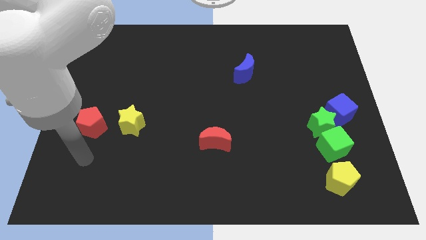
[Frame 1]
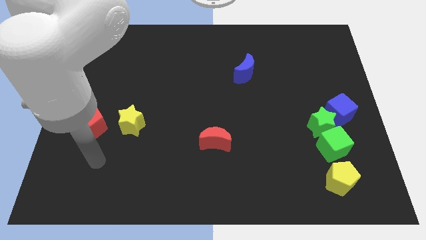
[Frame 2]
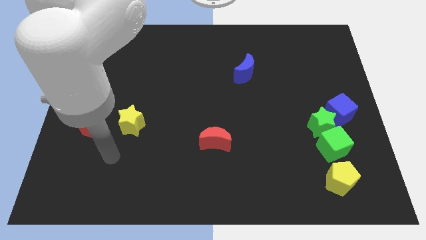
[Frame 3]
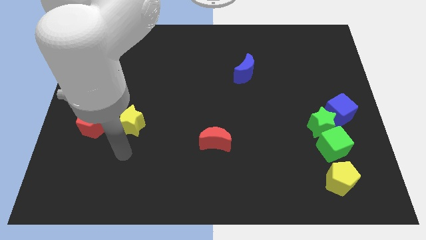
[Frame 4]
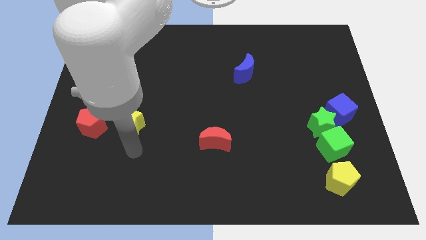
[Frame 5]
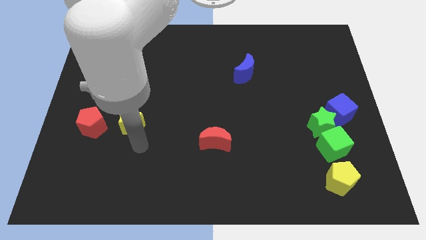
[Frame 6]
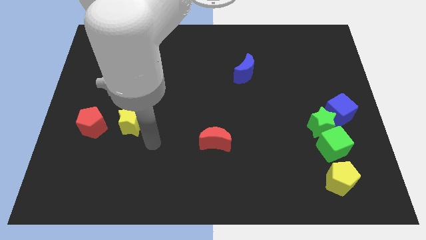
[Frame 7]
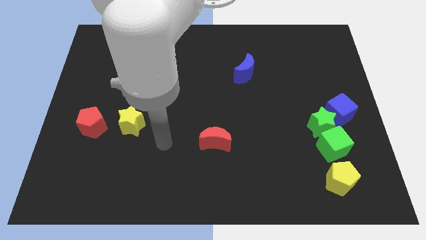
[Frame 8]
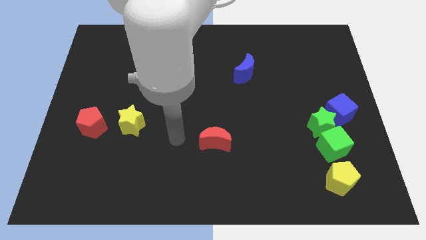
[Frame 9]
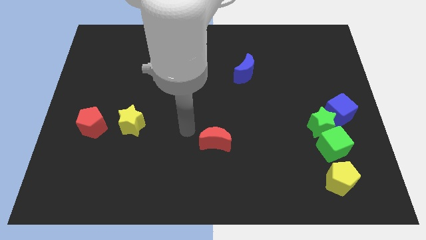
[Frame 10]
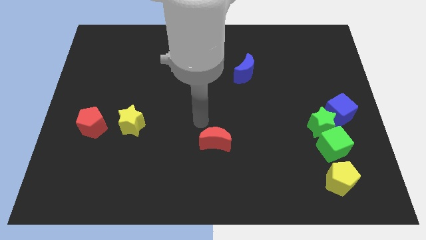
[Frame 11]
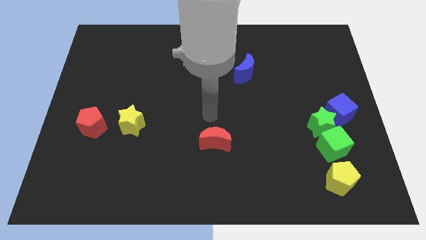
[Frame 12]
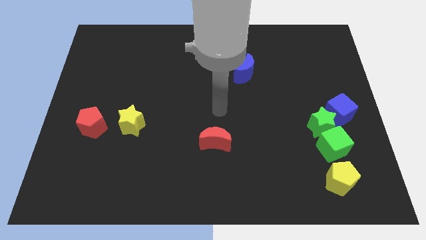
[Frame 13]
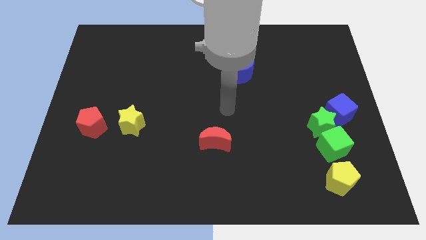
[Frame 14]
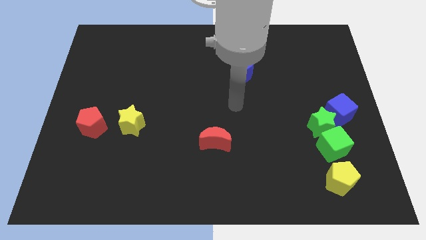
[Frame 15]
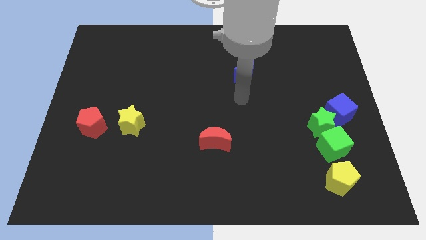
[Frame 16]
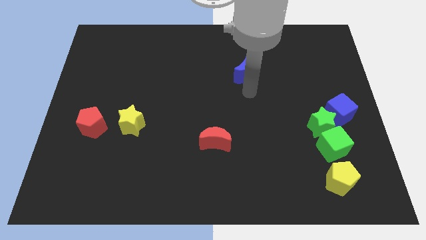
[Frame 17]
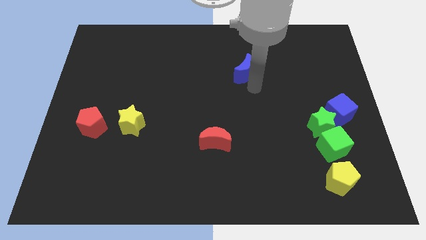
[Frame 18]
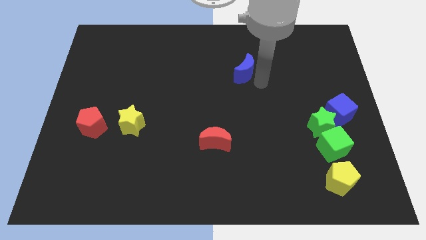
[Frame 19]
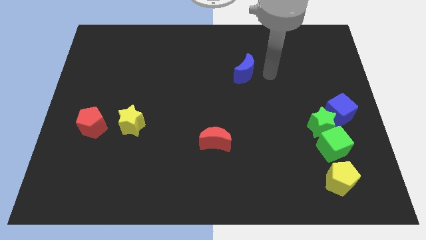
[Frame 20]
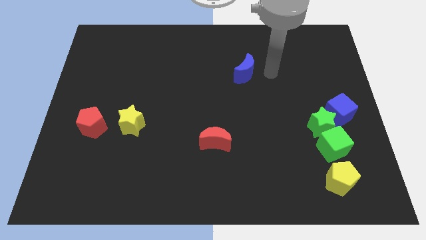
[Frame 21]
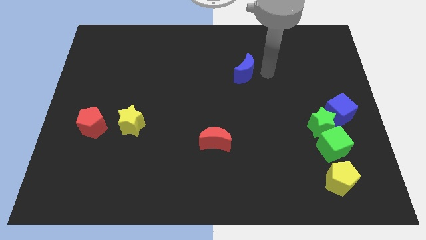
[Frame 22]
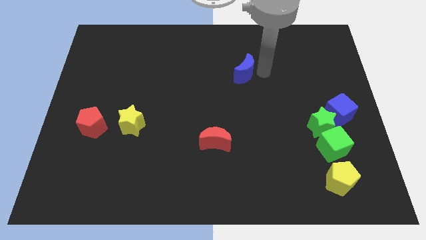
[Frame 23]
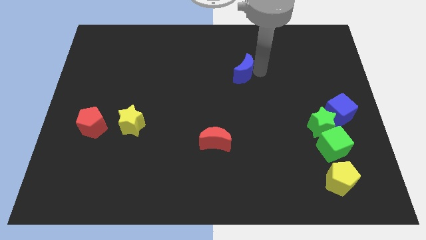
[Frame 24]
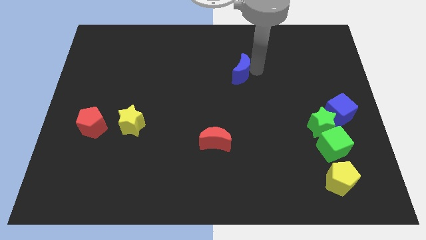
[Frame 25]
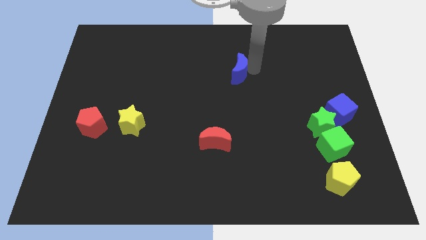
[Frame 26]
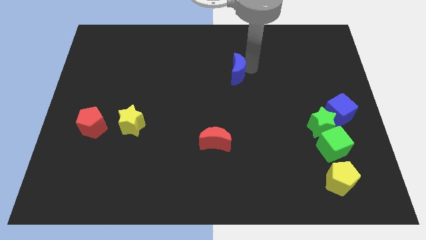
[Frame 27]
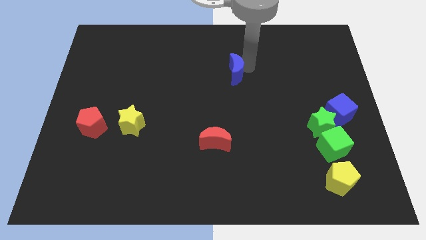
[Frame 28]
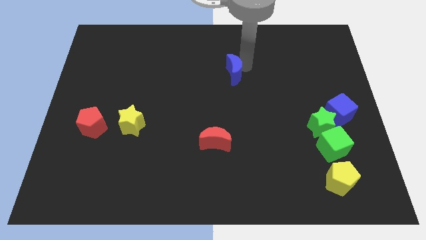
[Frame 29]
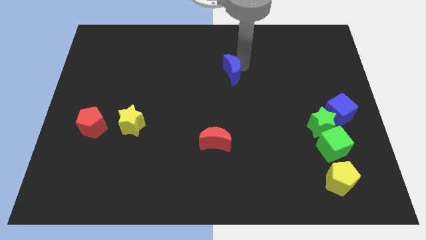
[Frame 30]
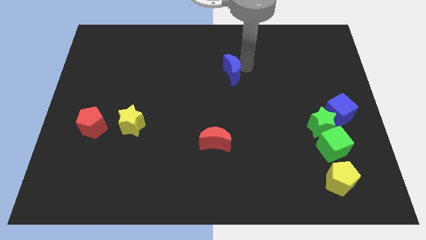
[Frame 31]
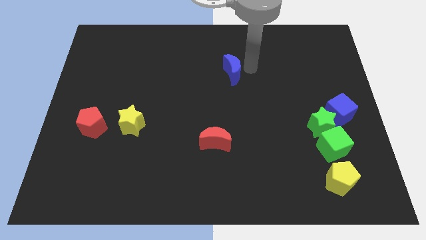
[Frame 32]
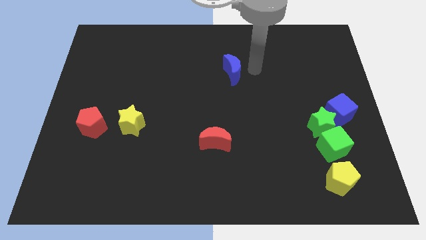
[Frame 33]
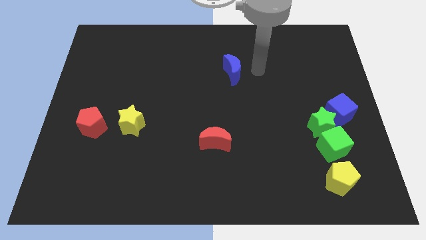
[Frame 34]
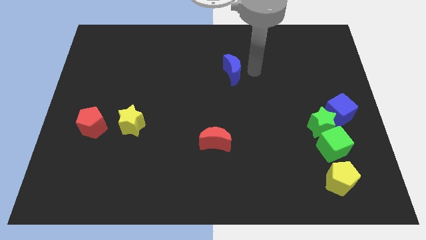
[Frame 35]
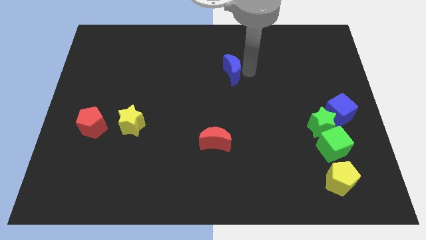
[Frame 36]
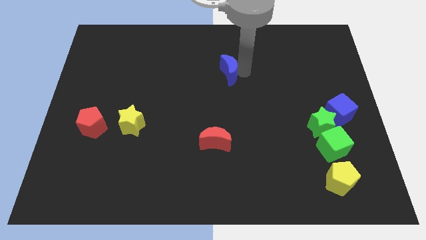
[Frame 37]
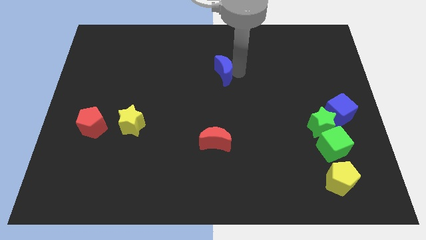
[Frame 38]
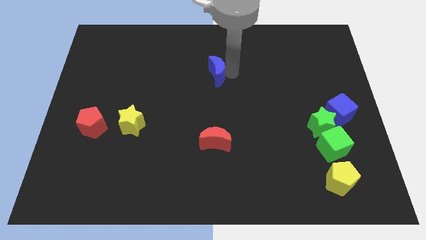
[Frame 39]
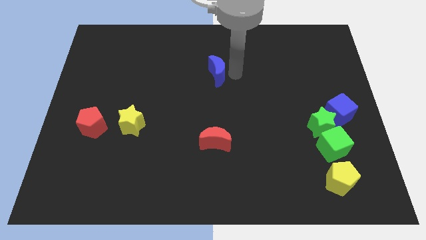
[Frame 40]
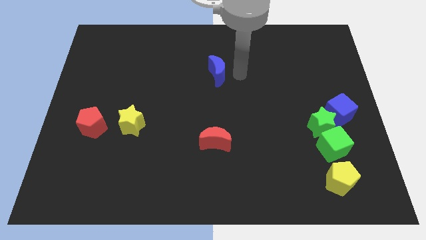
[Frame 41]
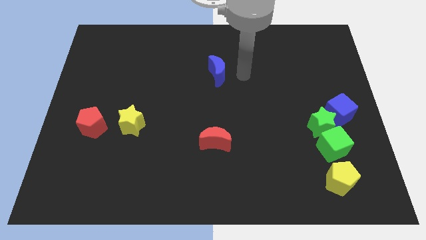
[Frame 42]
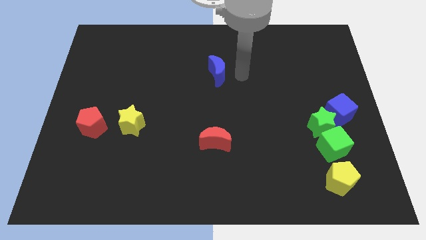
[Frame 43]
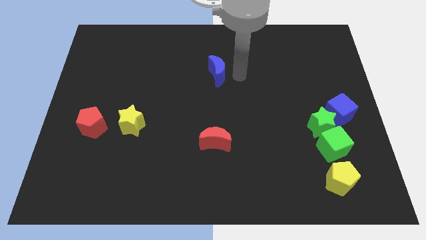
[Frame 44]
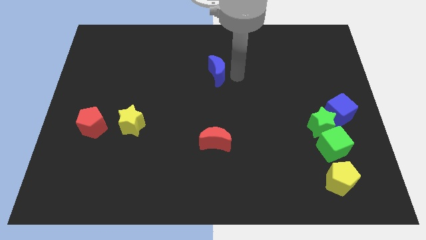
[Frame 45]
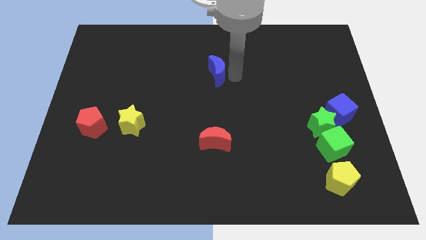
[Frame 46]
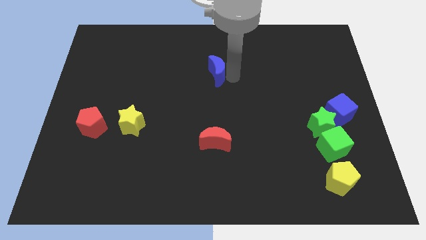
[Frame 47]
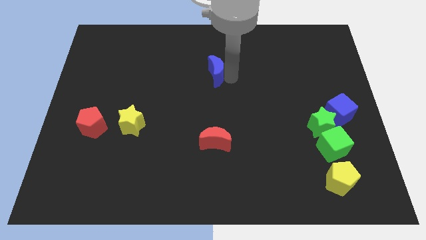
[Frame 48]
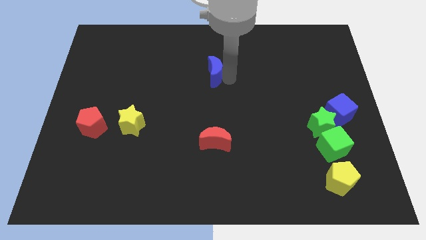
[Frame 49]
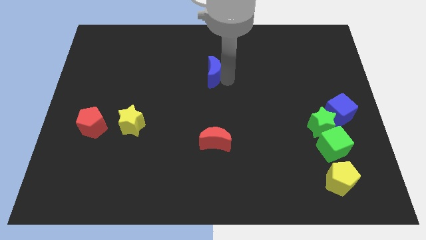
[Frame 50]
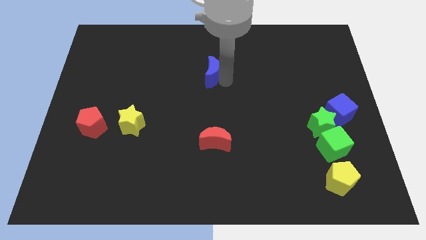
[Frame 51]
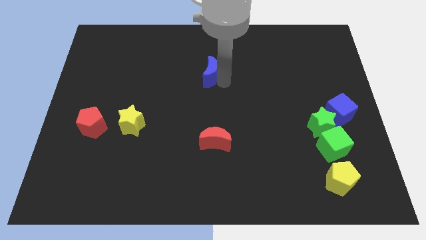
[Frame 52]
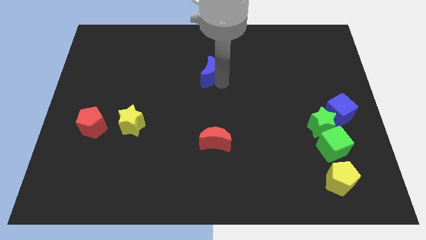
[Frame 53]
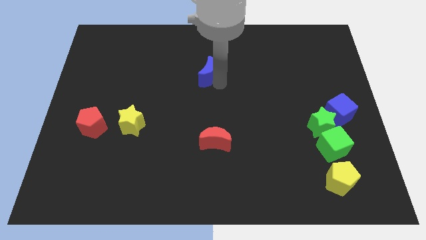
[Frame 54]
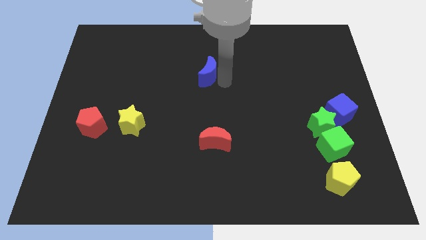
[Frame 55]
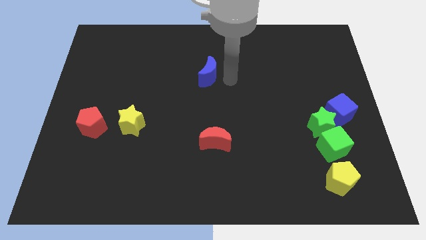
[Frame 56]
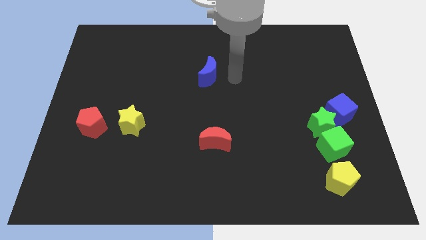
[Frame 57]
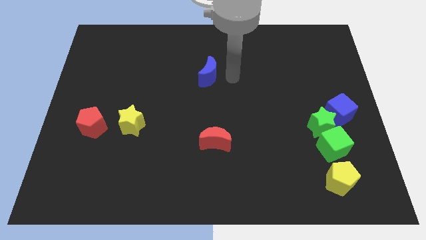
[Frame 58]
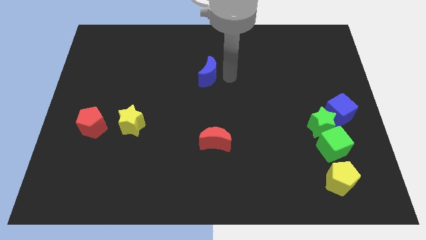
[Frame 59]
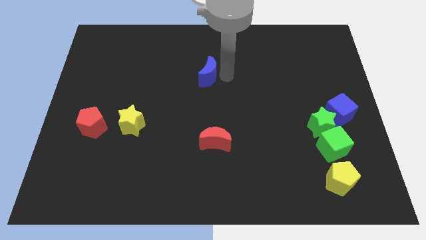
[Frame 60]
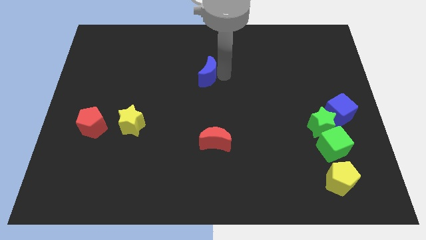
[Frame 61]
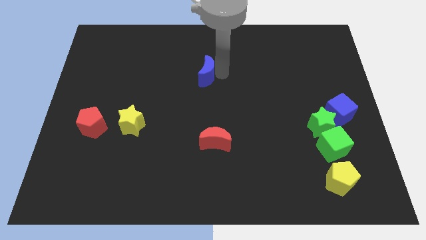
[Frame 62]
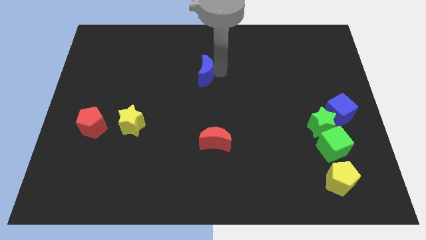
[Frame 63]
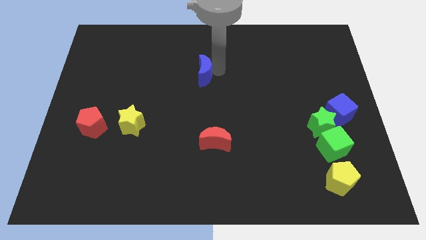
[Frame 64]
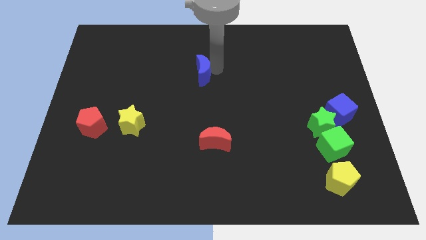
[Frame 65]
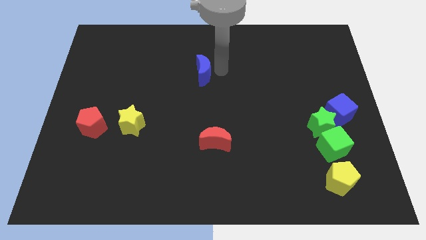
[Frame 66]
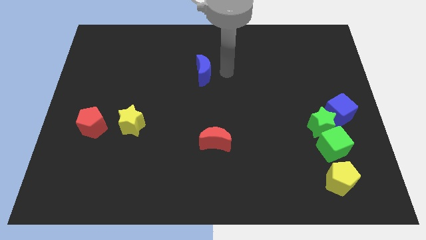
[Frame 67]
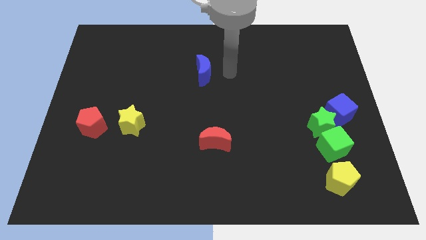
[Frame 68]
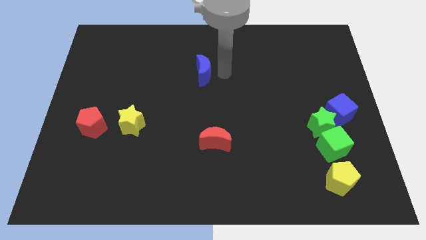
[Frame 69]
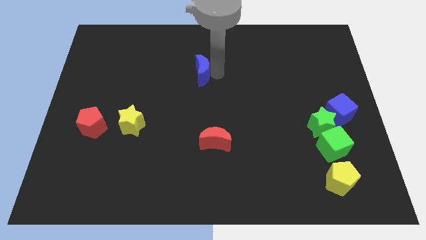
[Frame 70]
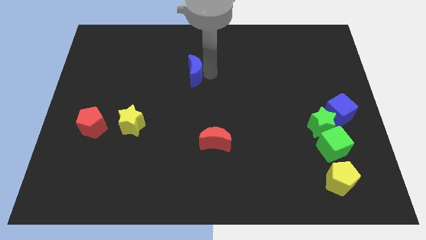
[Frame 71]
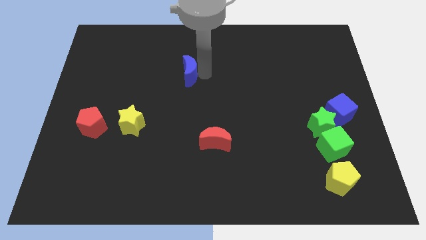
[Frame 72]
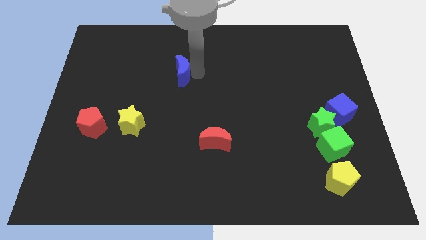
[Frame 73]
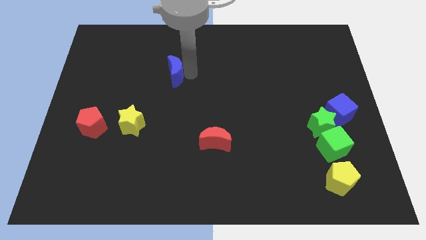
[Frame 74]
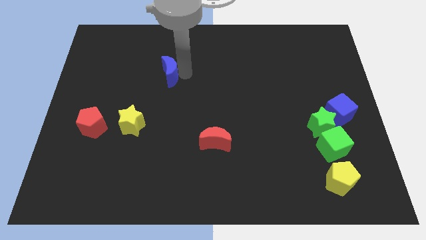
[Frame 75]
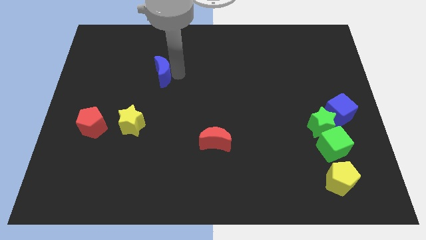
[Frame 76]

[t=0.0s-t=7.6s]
slide the blue moon to the left

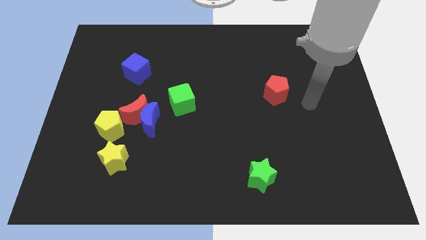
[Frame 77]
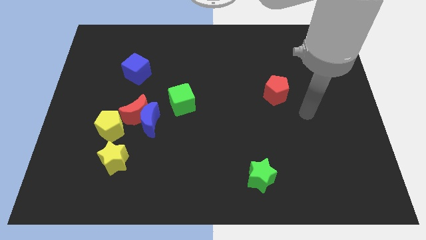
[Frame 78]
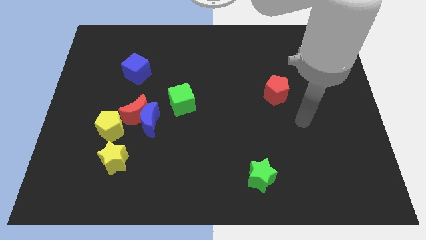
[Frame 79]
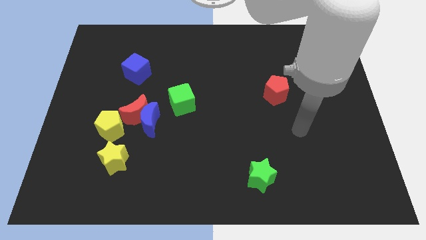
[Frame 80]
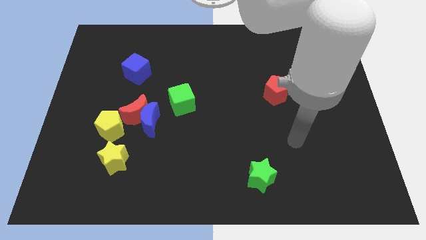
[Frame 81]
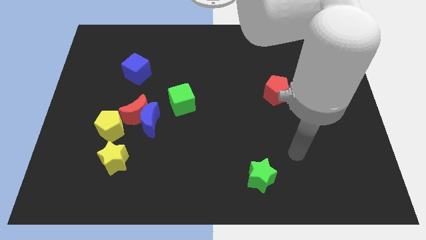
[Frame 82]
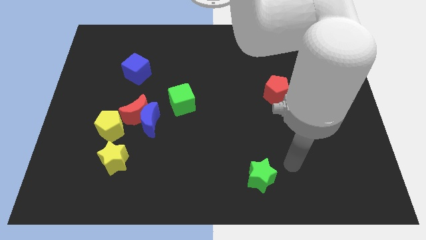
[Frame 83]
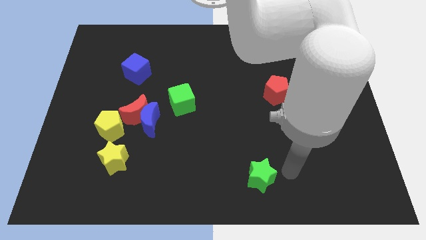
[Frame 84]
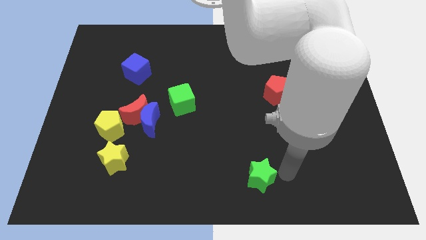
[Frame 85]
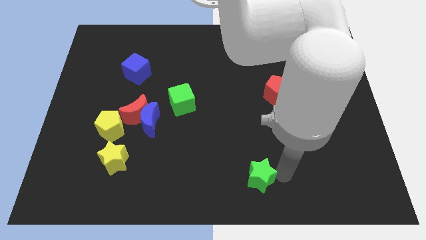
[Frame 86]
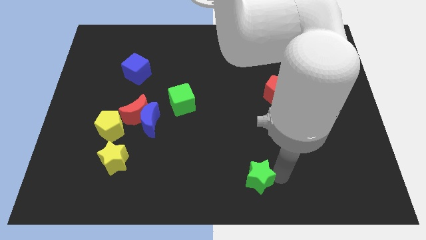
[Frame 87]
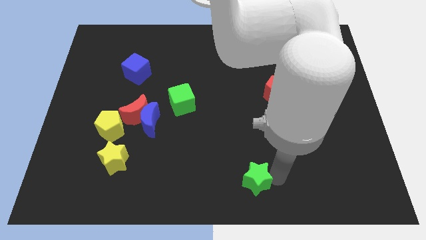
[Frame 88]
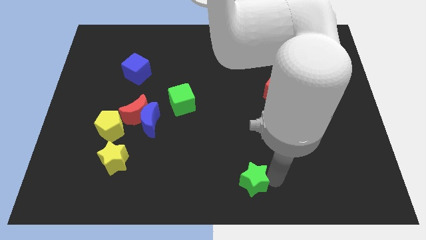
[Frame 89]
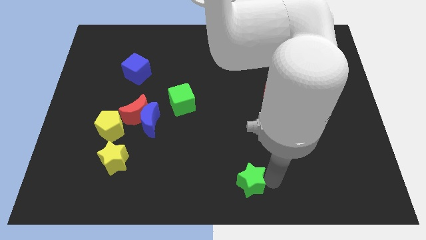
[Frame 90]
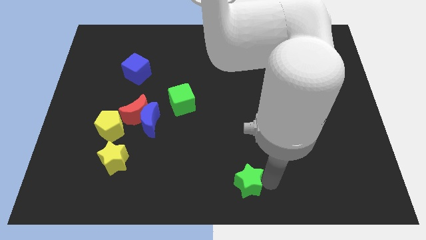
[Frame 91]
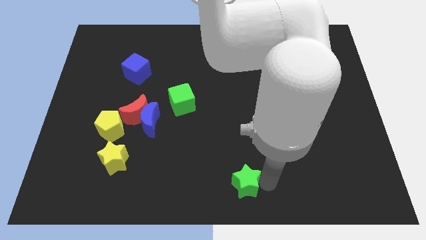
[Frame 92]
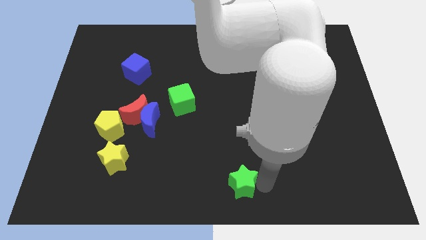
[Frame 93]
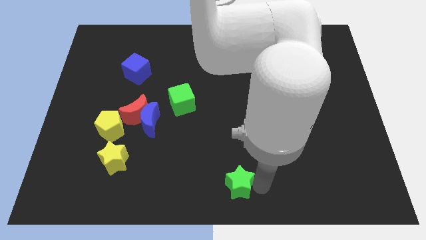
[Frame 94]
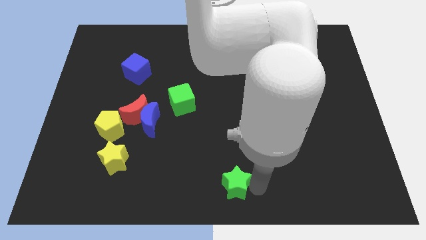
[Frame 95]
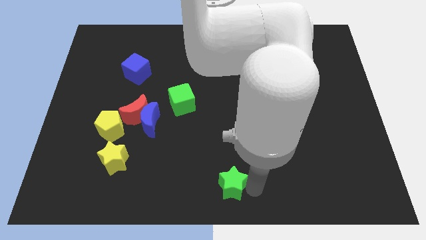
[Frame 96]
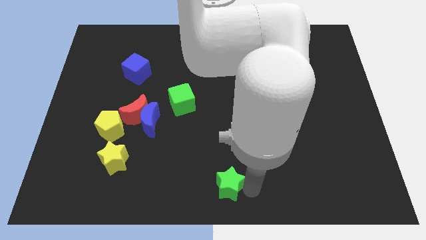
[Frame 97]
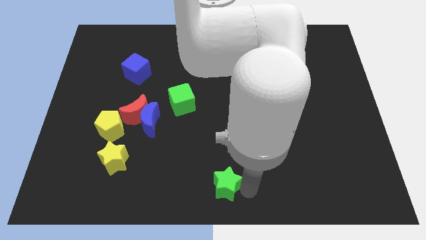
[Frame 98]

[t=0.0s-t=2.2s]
push the green star to the left slightly
